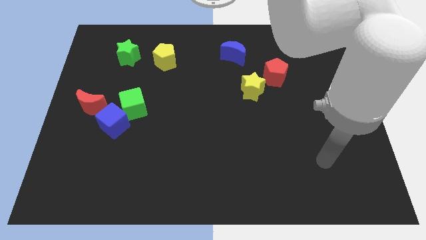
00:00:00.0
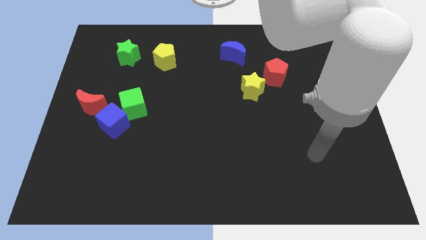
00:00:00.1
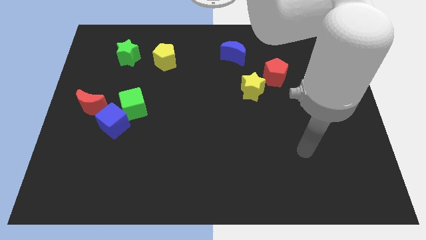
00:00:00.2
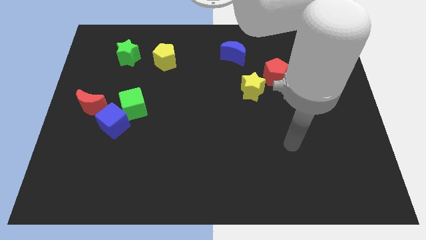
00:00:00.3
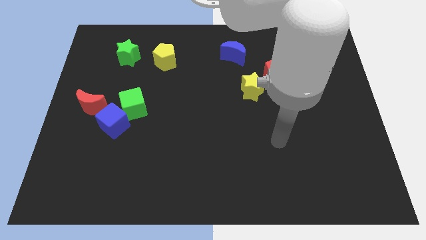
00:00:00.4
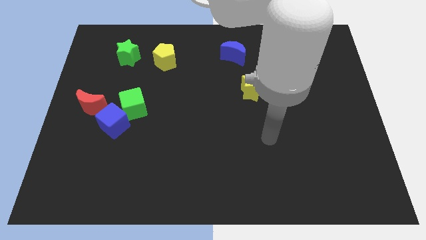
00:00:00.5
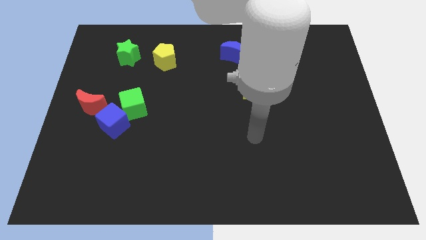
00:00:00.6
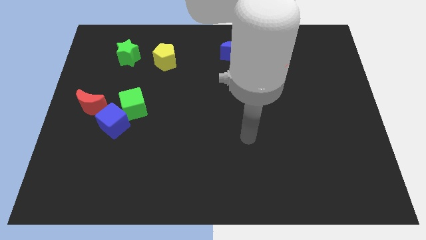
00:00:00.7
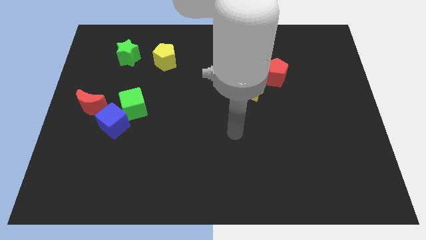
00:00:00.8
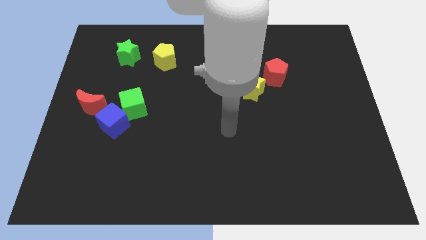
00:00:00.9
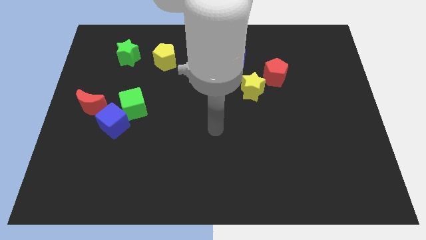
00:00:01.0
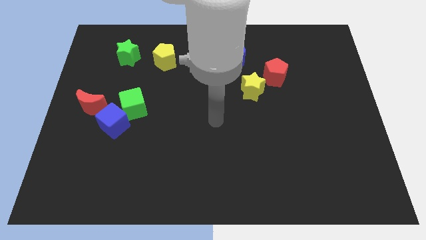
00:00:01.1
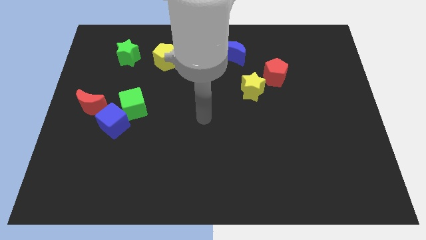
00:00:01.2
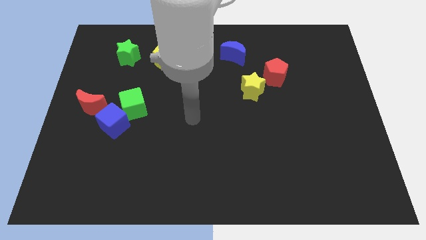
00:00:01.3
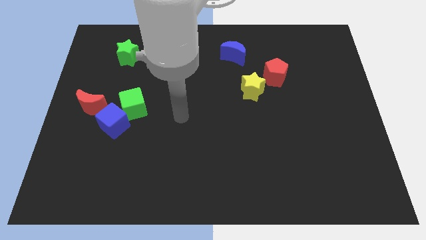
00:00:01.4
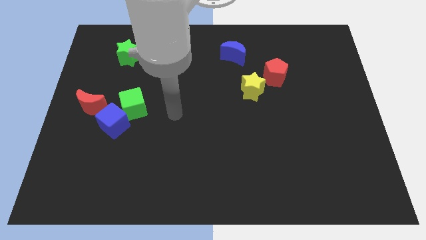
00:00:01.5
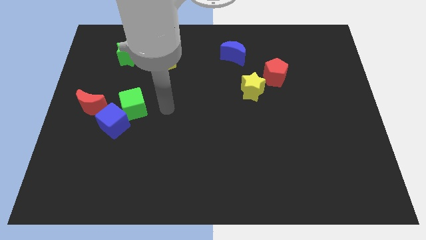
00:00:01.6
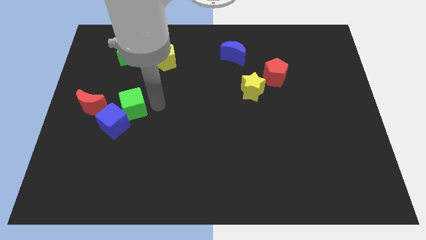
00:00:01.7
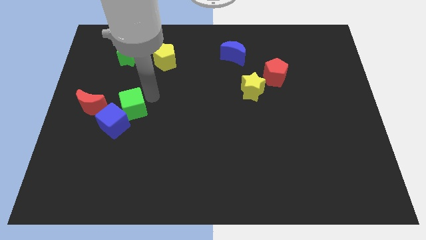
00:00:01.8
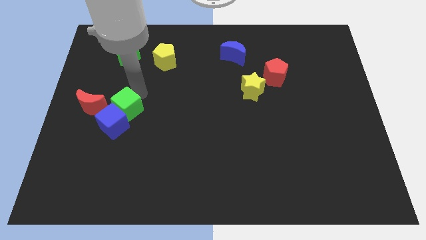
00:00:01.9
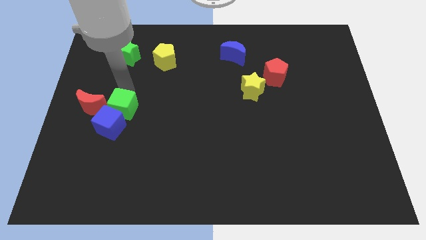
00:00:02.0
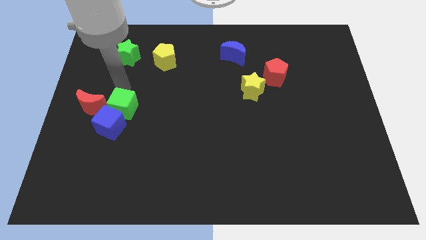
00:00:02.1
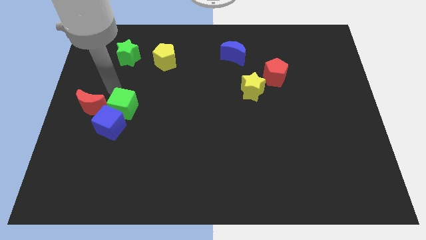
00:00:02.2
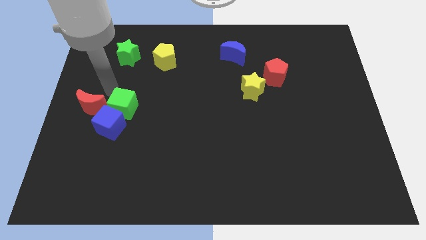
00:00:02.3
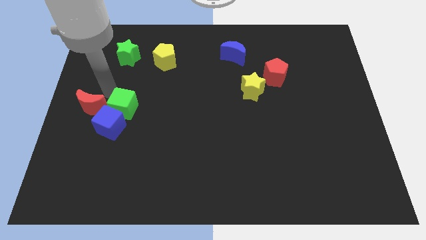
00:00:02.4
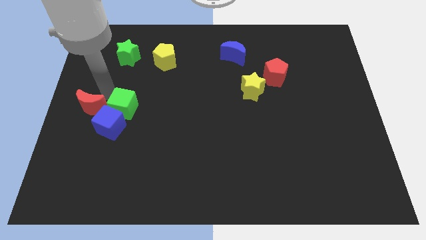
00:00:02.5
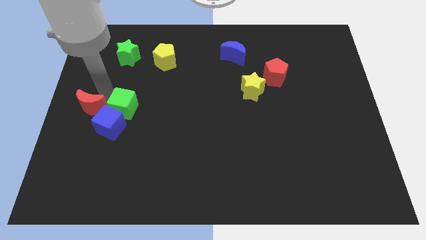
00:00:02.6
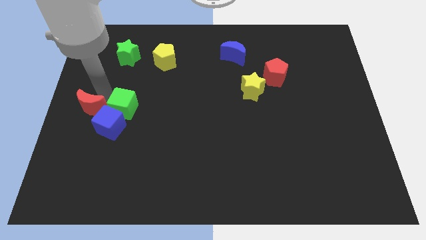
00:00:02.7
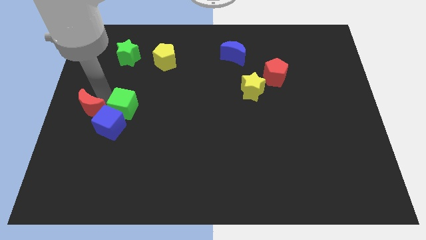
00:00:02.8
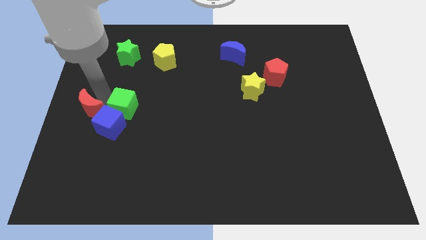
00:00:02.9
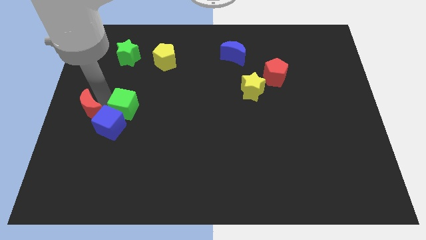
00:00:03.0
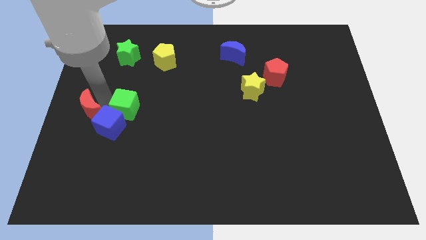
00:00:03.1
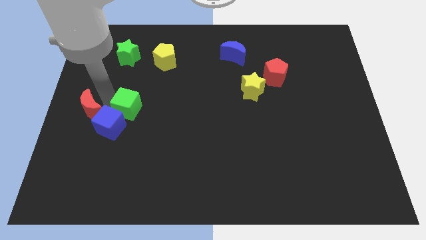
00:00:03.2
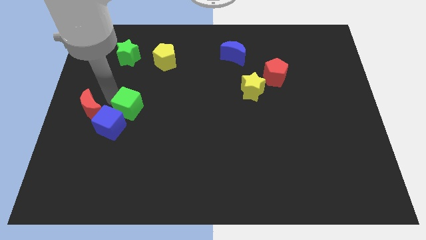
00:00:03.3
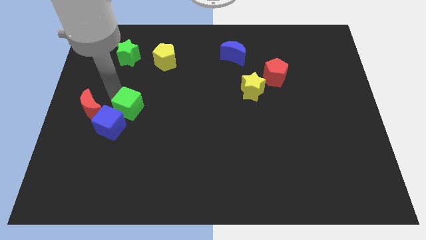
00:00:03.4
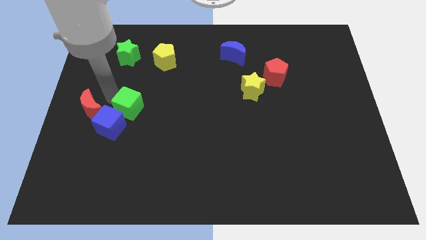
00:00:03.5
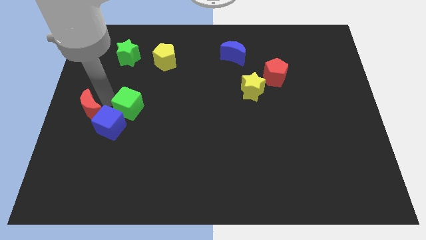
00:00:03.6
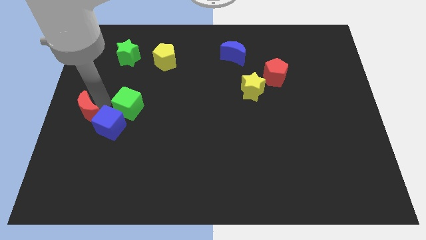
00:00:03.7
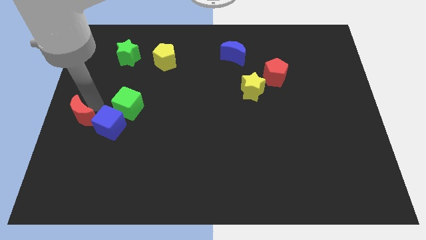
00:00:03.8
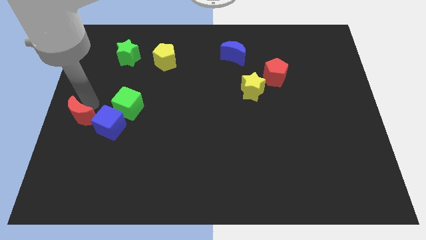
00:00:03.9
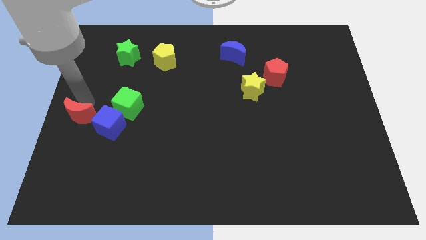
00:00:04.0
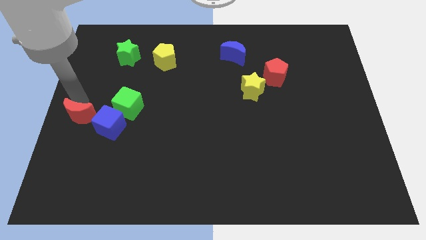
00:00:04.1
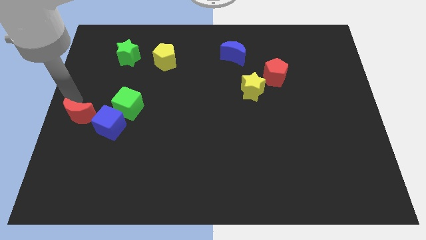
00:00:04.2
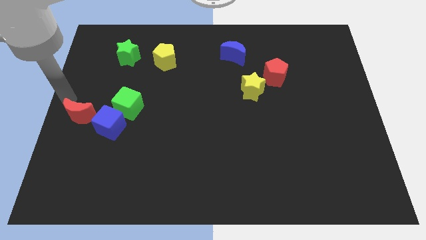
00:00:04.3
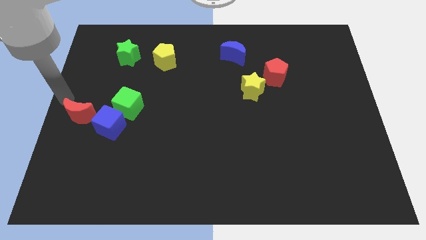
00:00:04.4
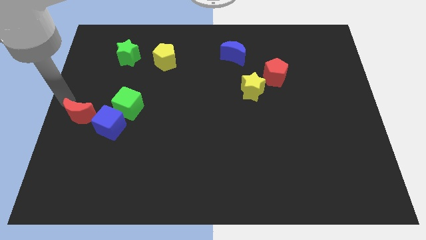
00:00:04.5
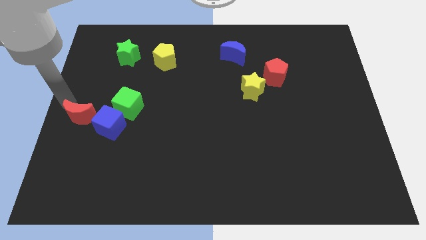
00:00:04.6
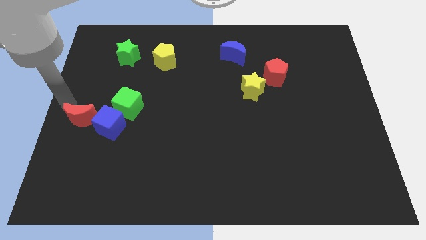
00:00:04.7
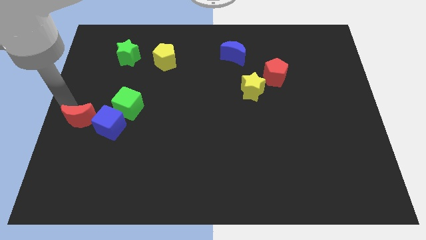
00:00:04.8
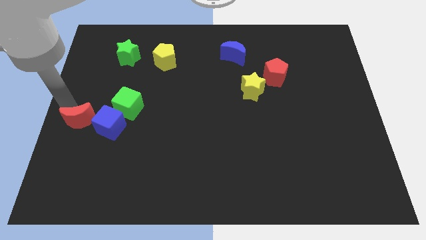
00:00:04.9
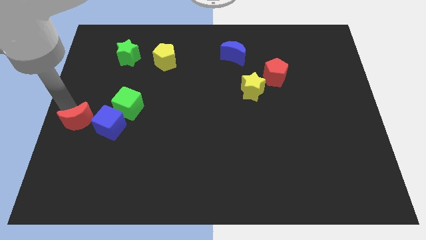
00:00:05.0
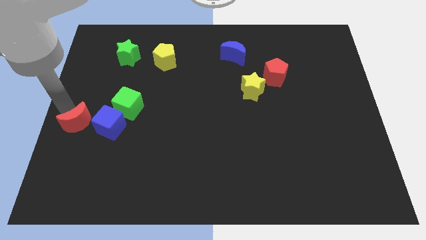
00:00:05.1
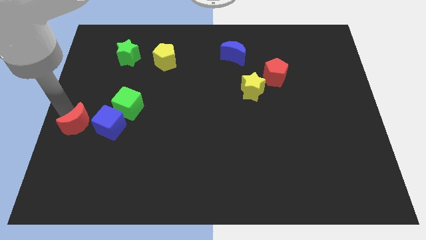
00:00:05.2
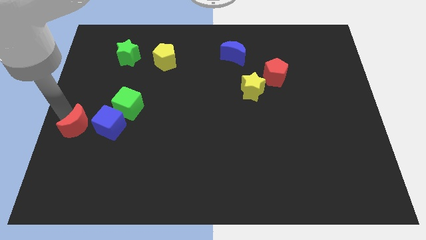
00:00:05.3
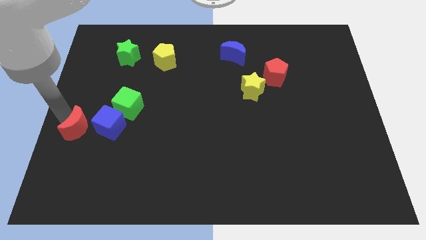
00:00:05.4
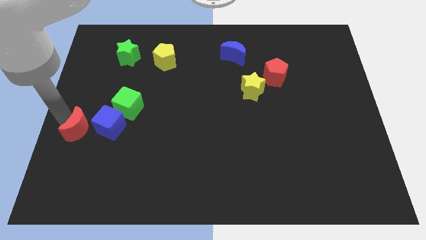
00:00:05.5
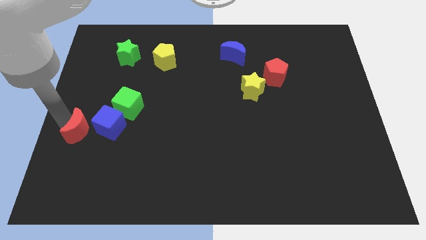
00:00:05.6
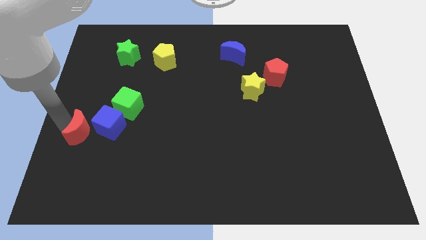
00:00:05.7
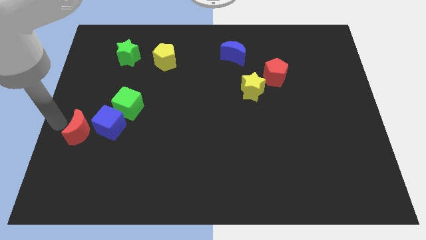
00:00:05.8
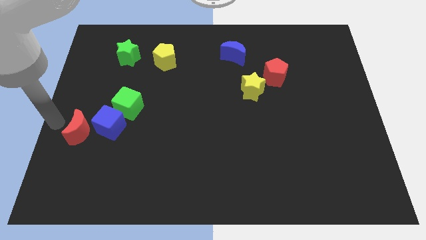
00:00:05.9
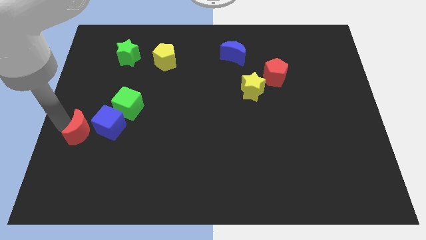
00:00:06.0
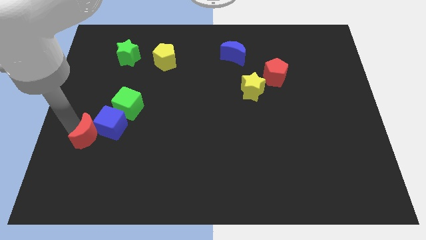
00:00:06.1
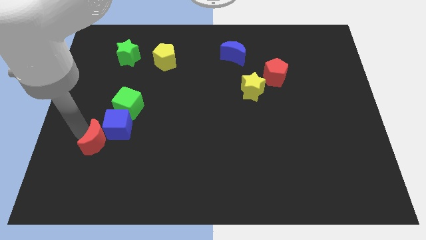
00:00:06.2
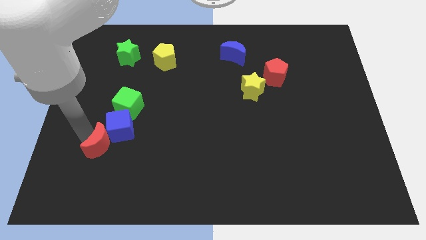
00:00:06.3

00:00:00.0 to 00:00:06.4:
move the red moon below the green cube
